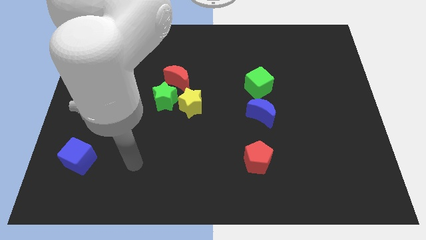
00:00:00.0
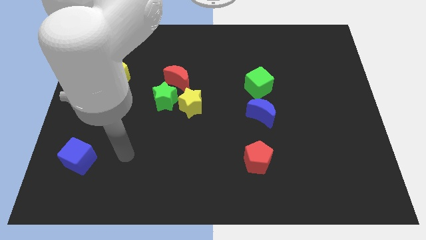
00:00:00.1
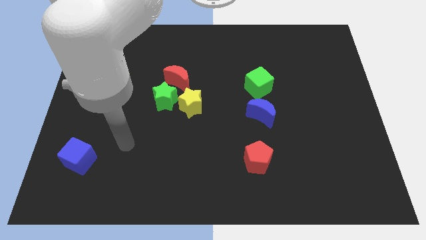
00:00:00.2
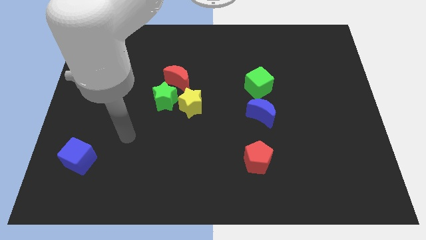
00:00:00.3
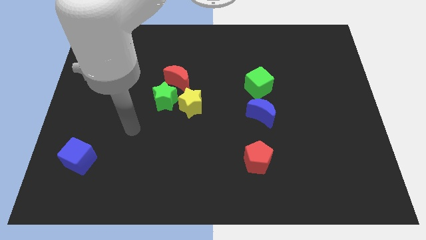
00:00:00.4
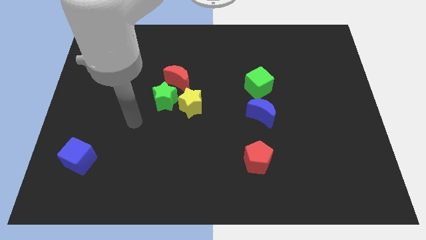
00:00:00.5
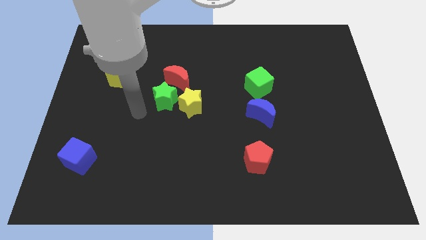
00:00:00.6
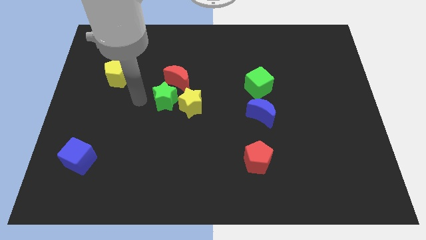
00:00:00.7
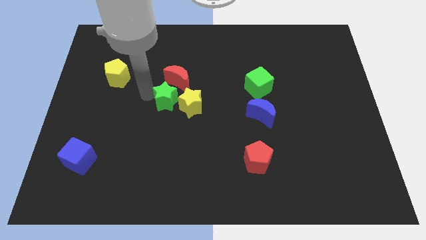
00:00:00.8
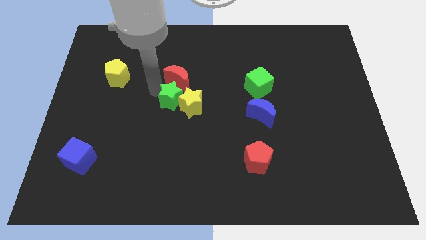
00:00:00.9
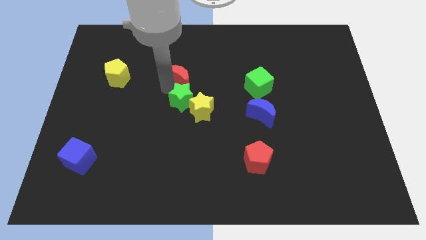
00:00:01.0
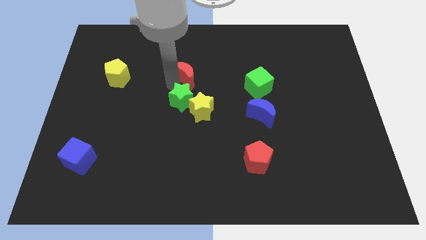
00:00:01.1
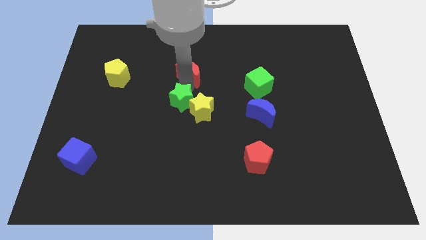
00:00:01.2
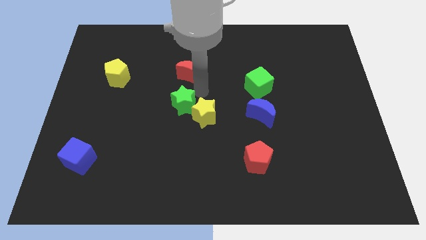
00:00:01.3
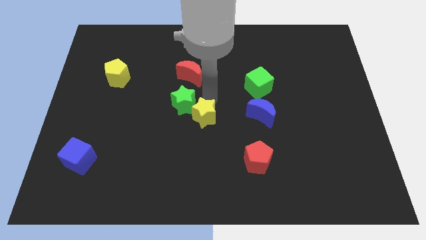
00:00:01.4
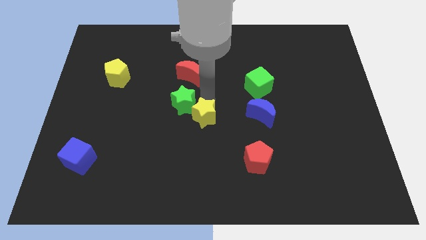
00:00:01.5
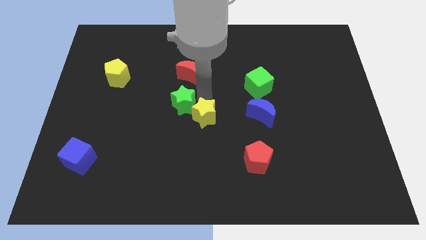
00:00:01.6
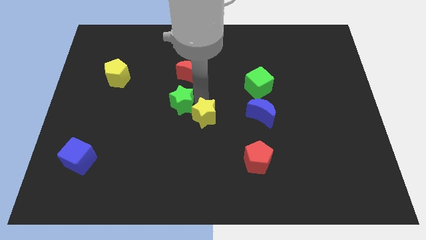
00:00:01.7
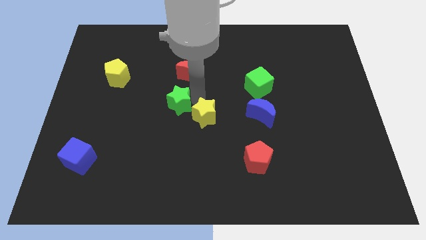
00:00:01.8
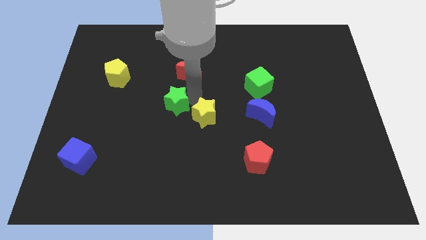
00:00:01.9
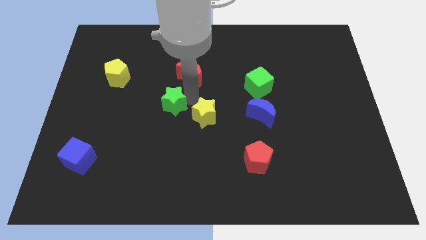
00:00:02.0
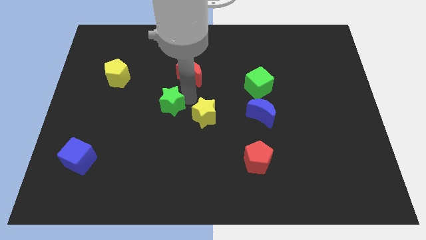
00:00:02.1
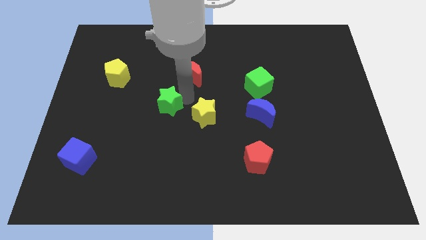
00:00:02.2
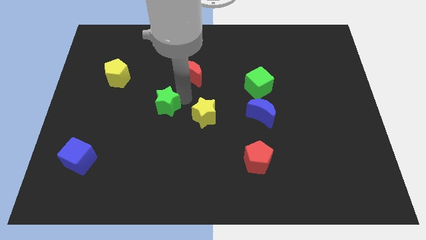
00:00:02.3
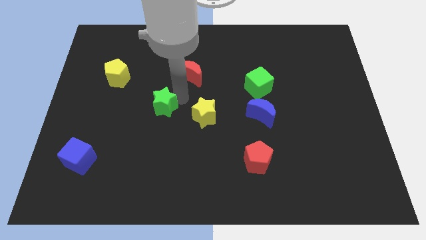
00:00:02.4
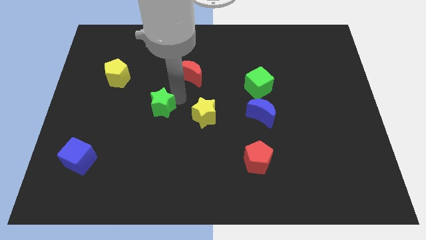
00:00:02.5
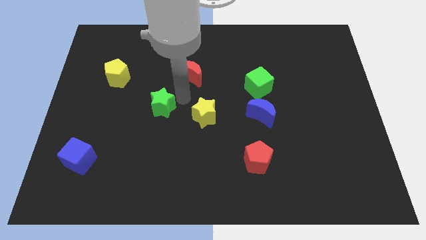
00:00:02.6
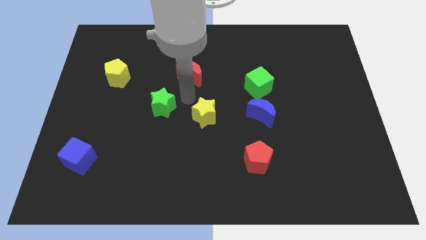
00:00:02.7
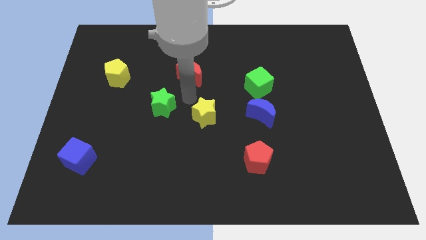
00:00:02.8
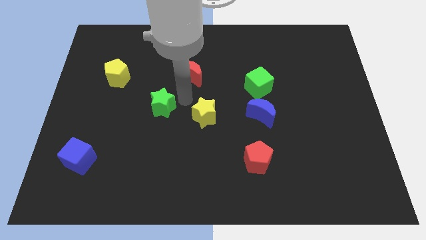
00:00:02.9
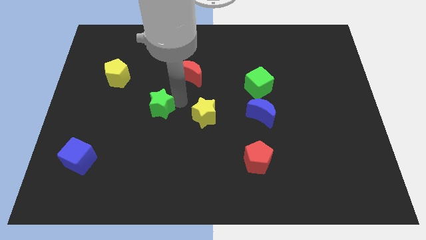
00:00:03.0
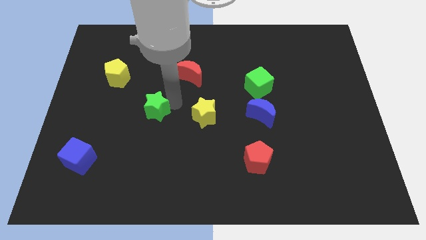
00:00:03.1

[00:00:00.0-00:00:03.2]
separate the green star from the yellow star and red moon

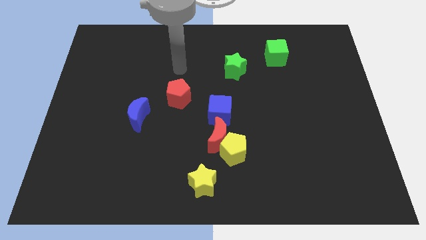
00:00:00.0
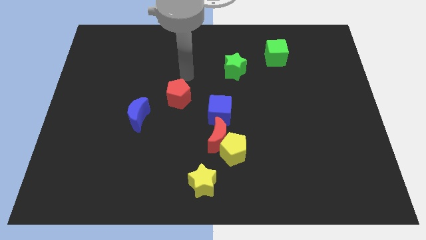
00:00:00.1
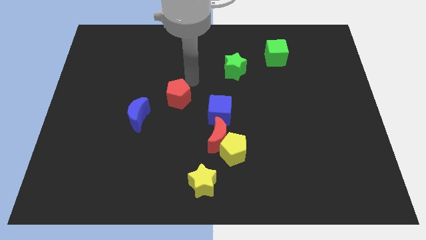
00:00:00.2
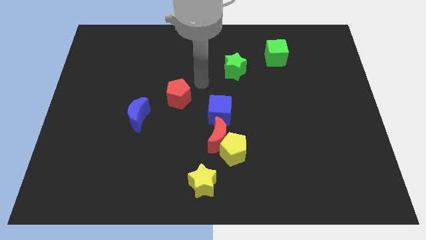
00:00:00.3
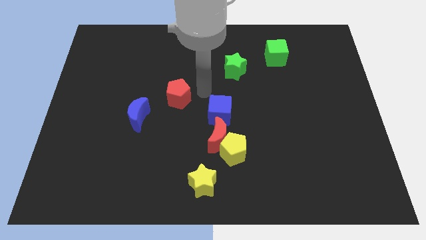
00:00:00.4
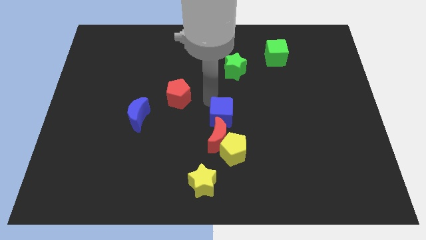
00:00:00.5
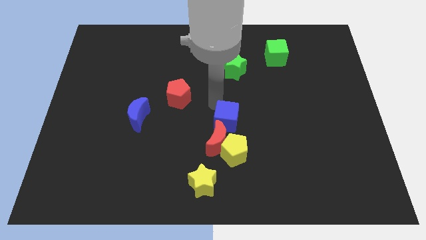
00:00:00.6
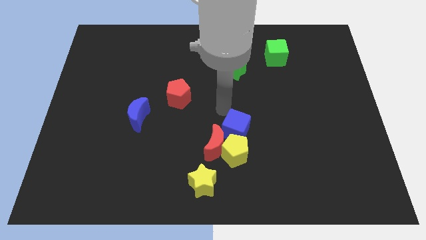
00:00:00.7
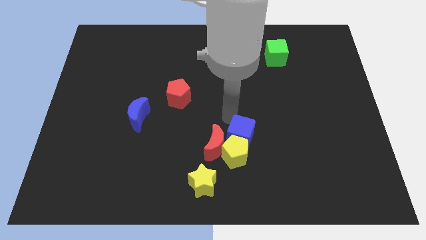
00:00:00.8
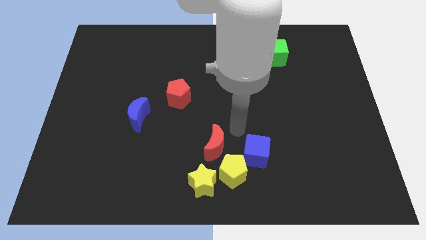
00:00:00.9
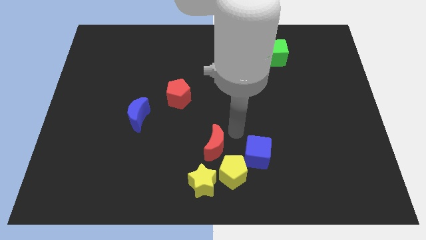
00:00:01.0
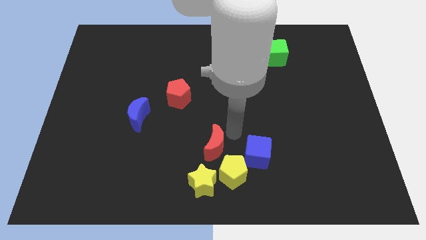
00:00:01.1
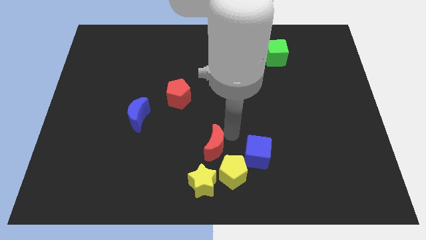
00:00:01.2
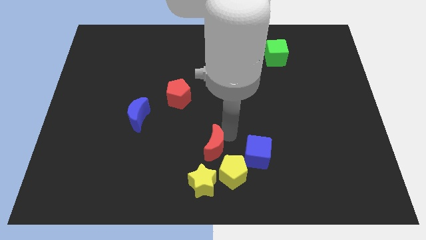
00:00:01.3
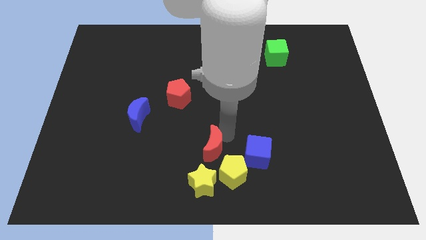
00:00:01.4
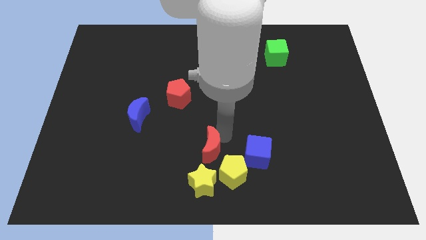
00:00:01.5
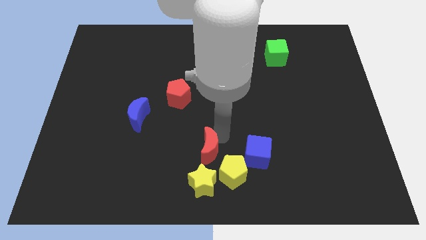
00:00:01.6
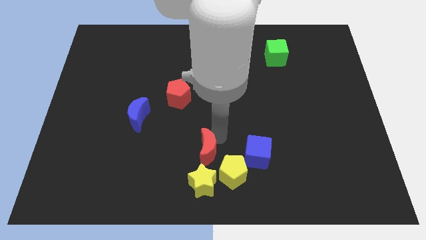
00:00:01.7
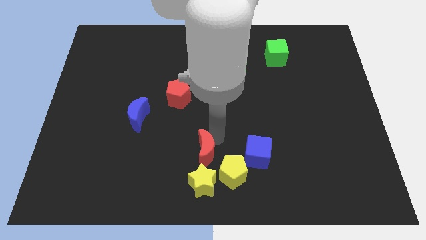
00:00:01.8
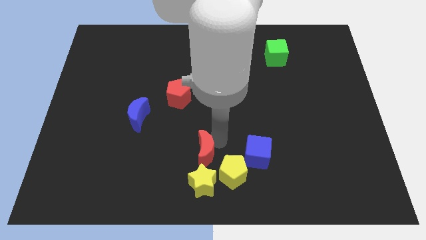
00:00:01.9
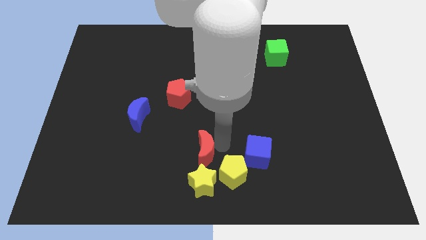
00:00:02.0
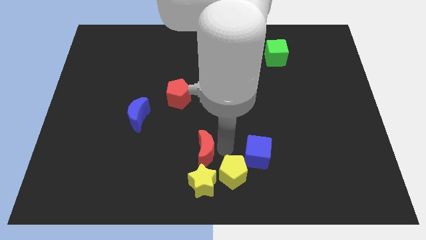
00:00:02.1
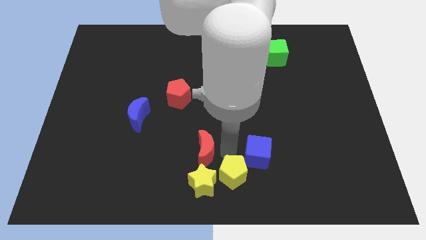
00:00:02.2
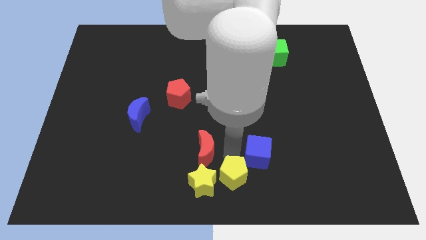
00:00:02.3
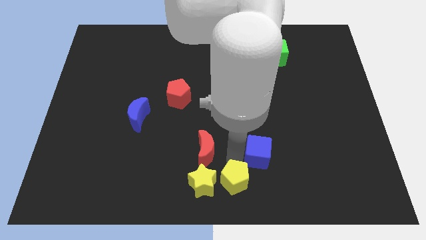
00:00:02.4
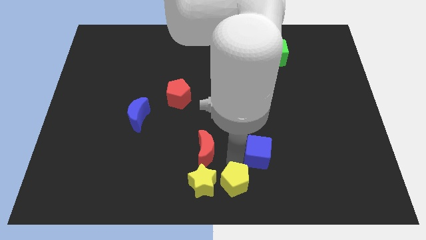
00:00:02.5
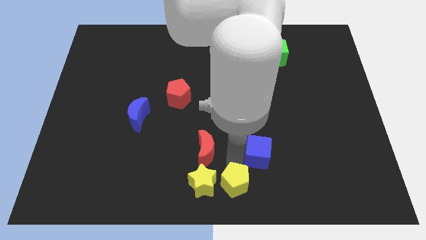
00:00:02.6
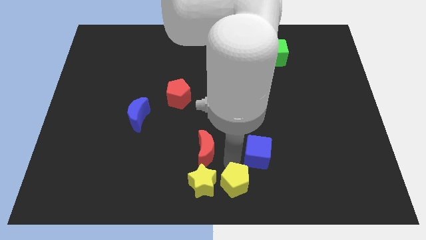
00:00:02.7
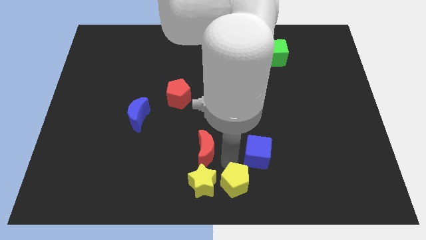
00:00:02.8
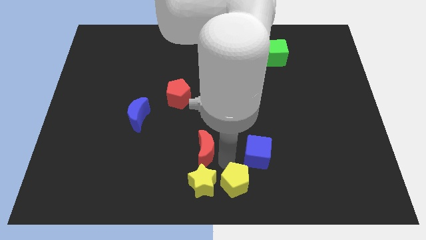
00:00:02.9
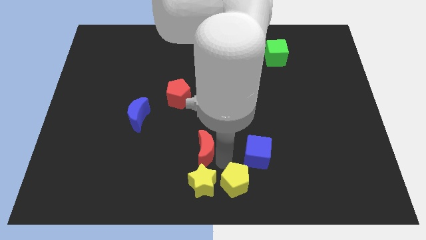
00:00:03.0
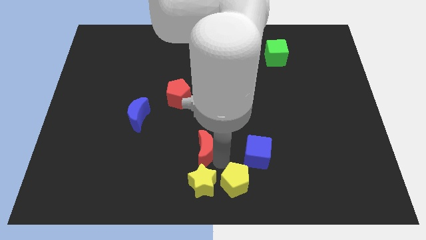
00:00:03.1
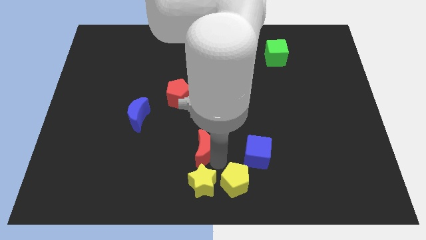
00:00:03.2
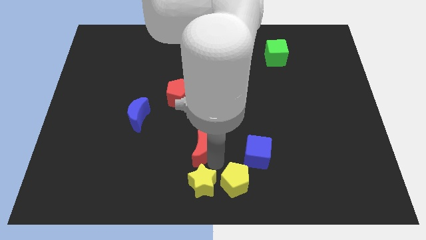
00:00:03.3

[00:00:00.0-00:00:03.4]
pull the red moon apart from the yellow pentagon and blue cube

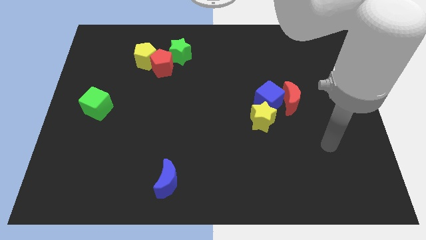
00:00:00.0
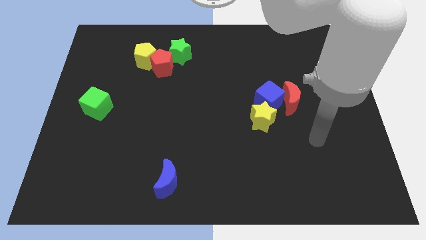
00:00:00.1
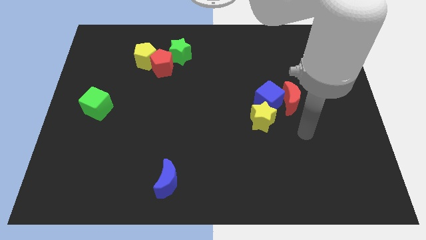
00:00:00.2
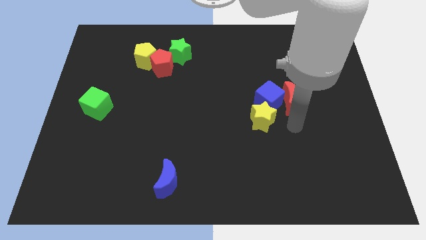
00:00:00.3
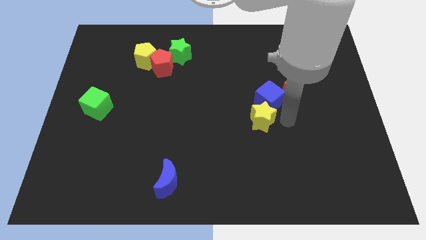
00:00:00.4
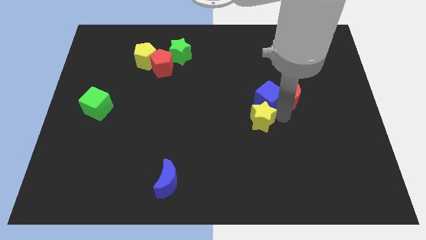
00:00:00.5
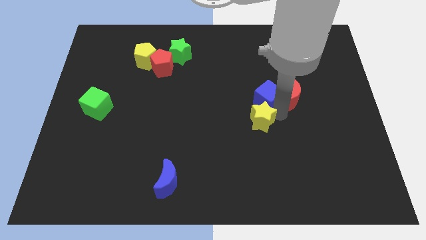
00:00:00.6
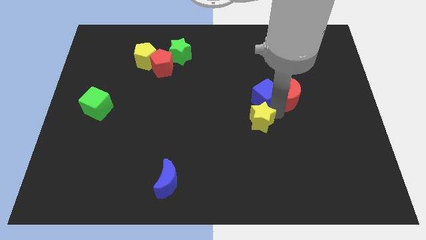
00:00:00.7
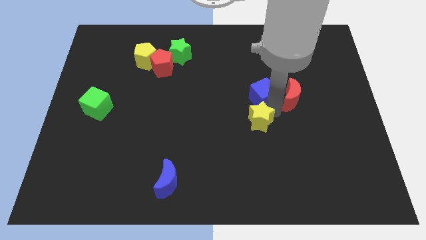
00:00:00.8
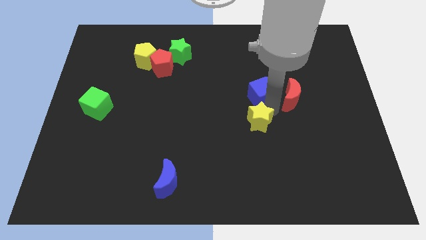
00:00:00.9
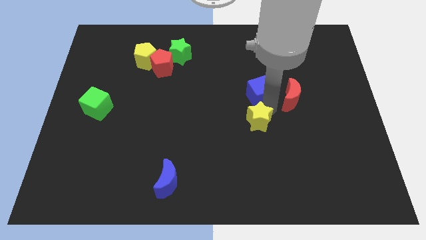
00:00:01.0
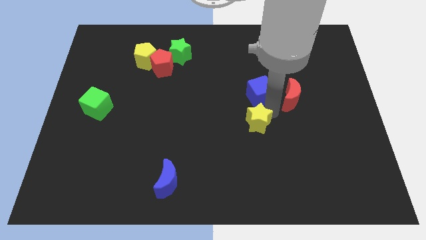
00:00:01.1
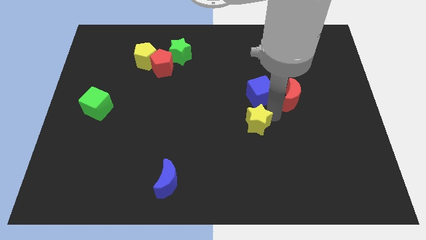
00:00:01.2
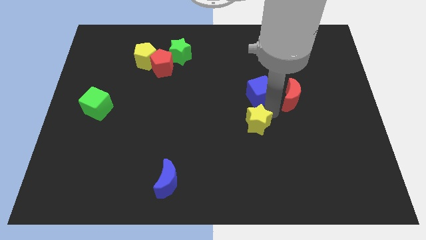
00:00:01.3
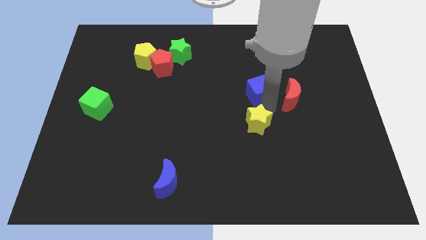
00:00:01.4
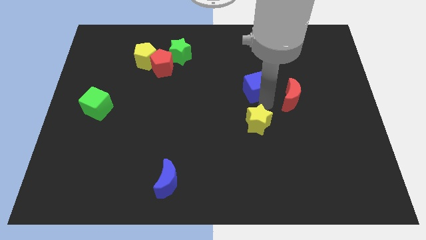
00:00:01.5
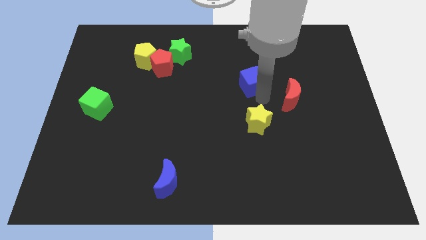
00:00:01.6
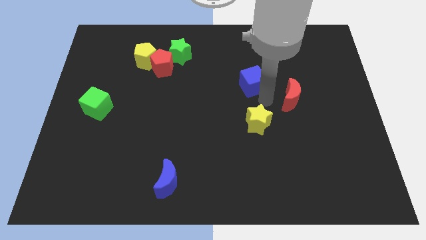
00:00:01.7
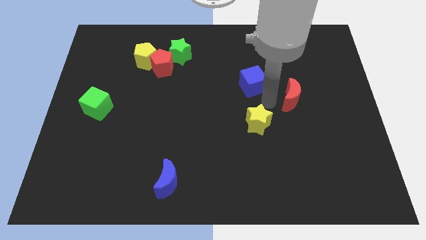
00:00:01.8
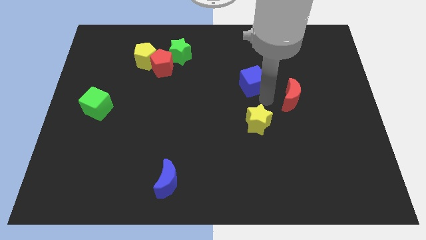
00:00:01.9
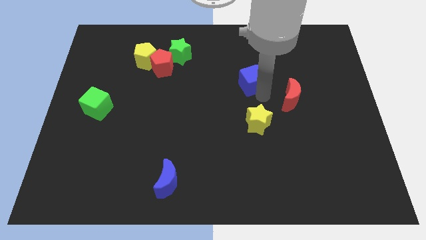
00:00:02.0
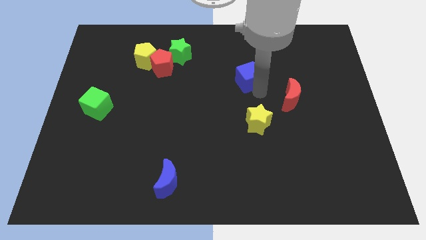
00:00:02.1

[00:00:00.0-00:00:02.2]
move the blue cube away from the red moon and yellow star

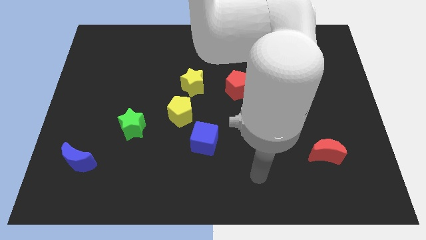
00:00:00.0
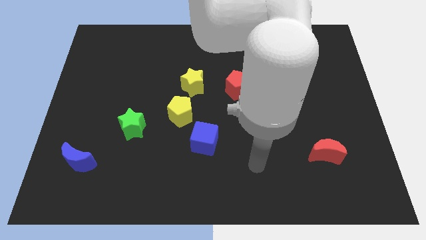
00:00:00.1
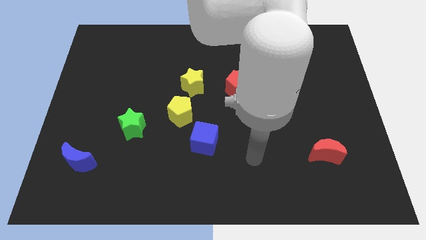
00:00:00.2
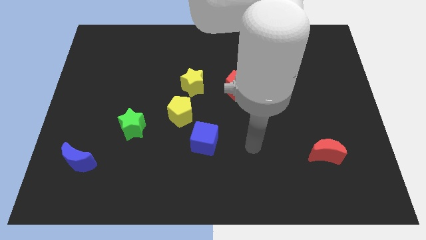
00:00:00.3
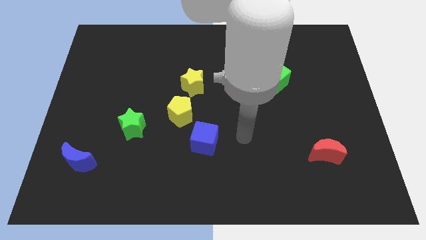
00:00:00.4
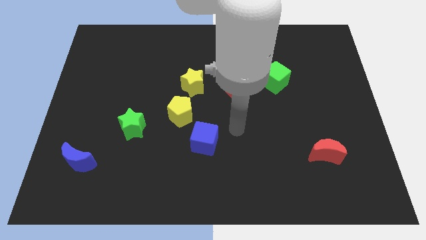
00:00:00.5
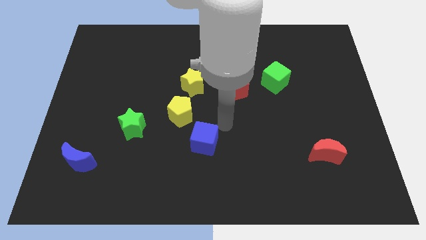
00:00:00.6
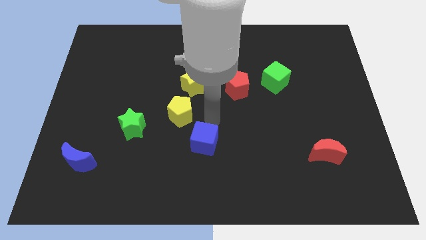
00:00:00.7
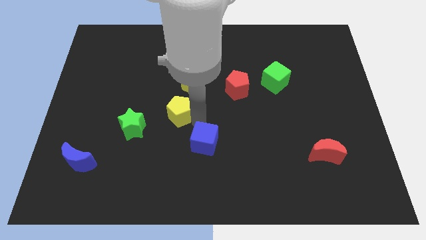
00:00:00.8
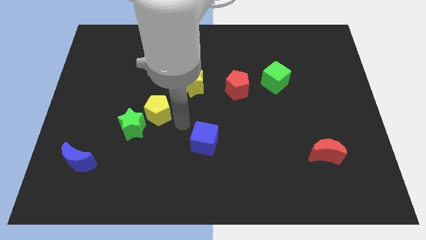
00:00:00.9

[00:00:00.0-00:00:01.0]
pull the yellow star apart from the yellow pentagon
